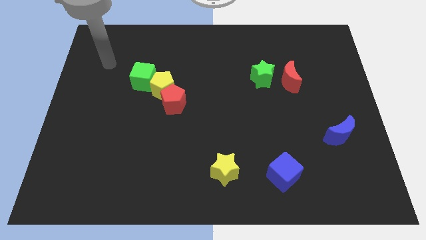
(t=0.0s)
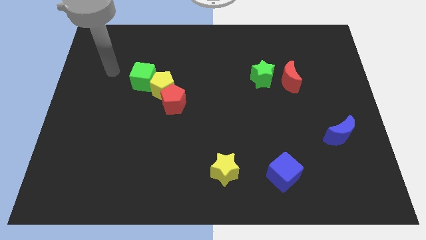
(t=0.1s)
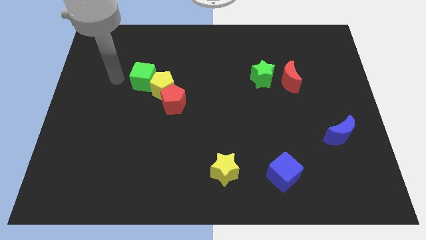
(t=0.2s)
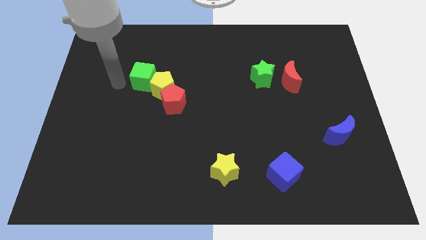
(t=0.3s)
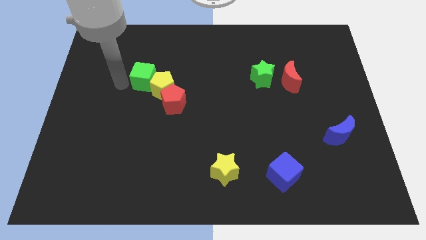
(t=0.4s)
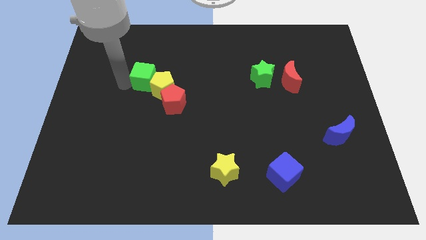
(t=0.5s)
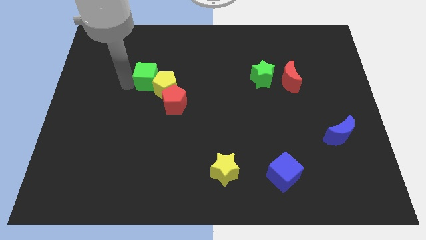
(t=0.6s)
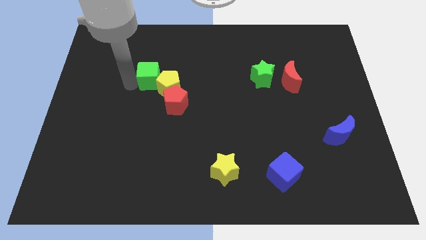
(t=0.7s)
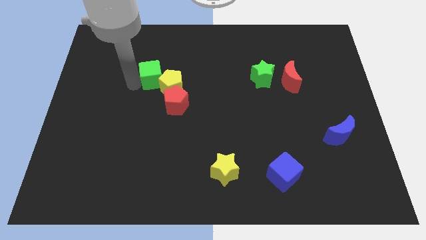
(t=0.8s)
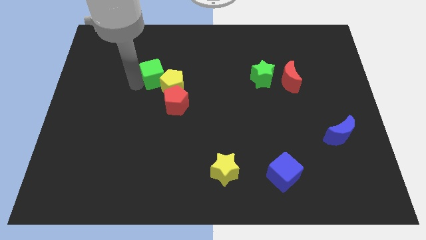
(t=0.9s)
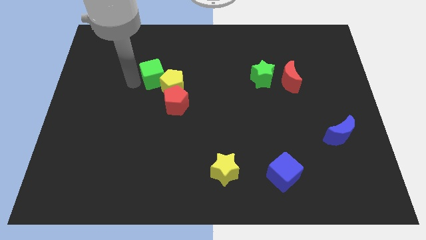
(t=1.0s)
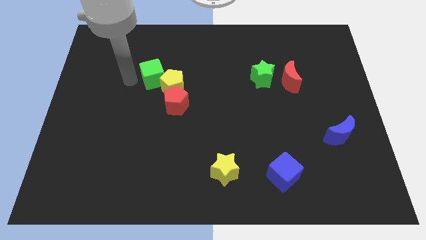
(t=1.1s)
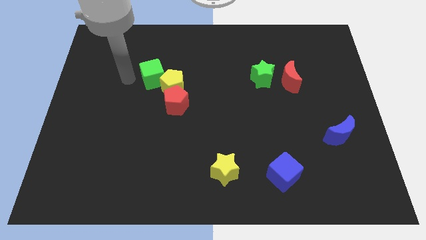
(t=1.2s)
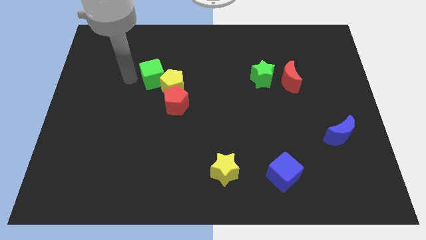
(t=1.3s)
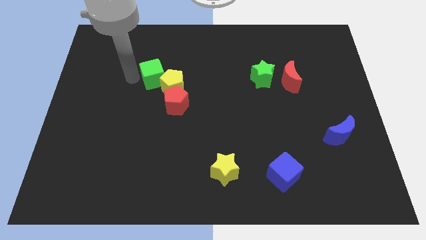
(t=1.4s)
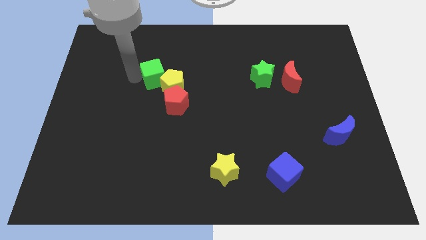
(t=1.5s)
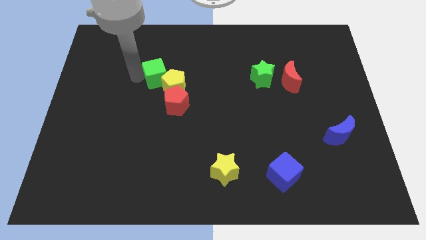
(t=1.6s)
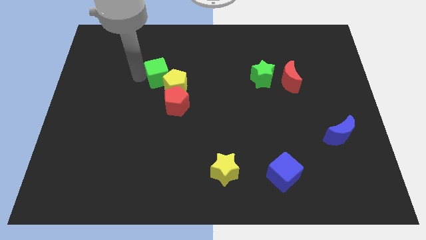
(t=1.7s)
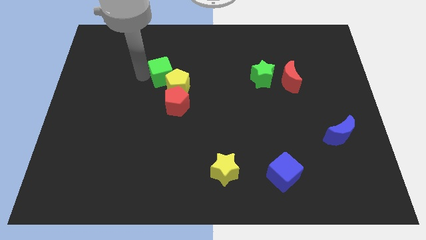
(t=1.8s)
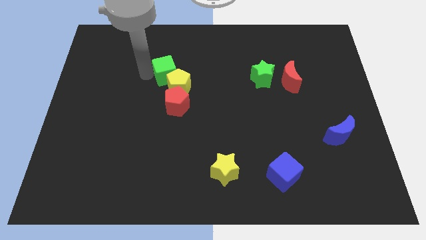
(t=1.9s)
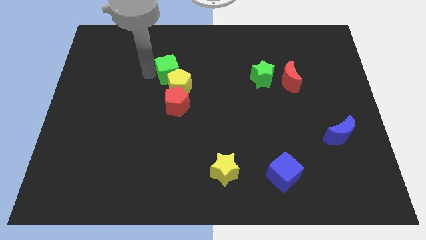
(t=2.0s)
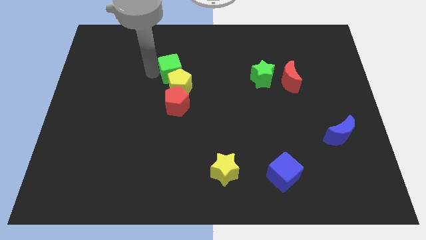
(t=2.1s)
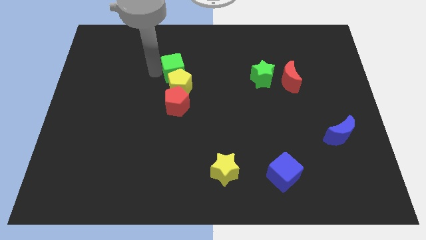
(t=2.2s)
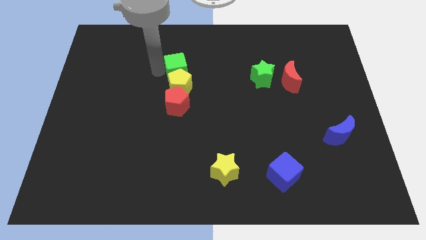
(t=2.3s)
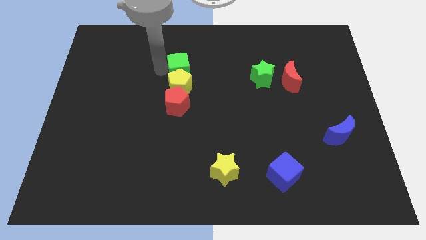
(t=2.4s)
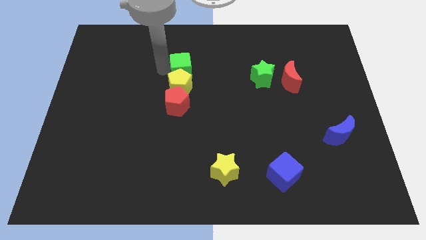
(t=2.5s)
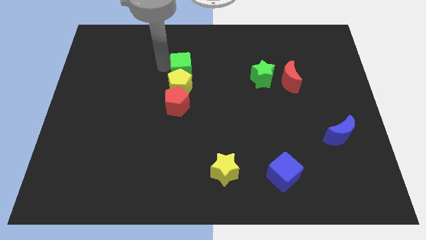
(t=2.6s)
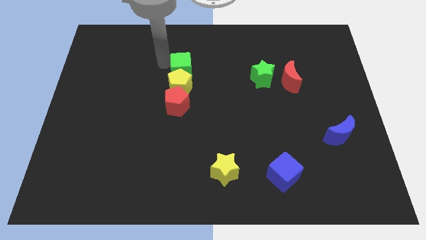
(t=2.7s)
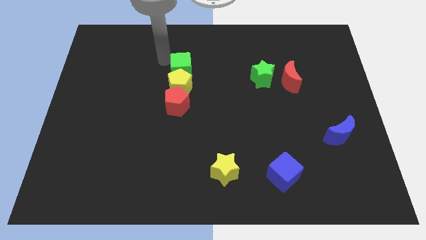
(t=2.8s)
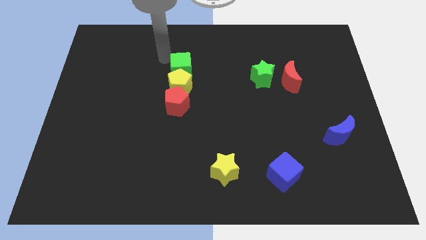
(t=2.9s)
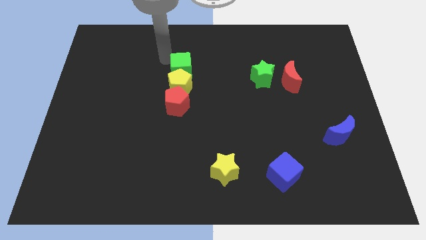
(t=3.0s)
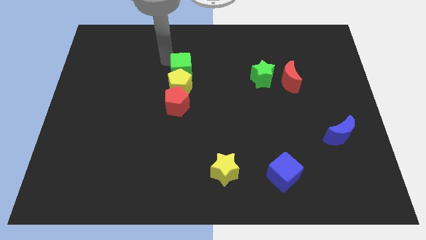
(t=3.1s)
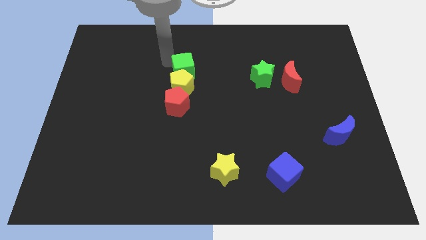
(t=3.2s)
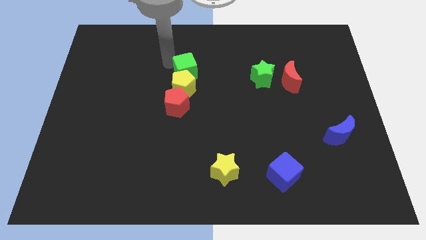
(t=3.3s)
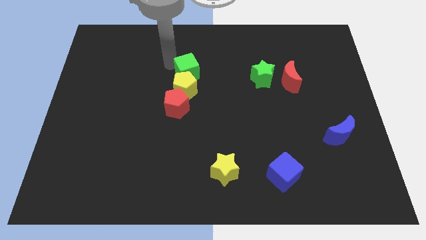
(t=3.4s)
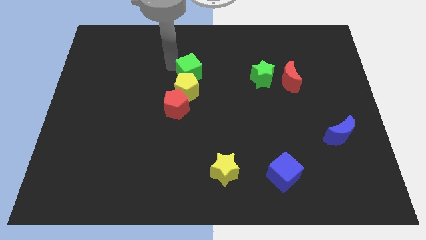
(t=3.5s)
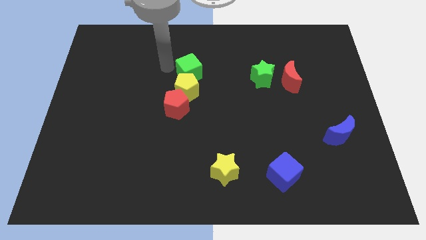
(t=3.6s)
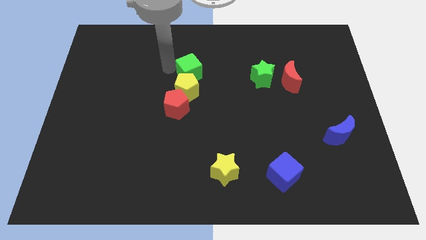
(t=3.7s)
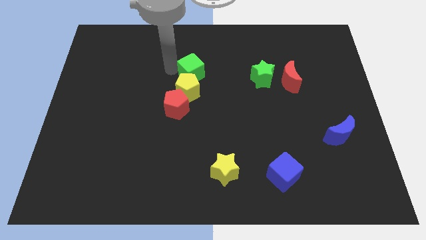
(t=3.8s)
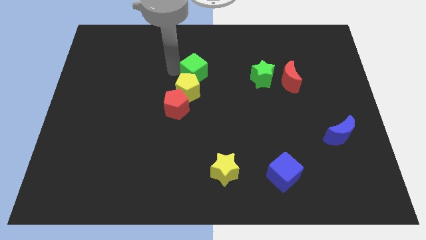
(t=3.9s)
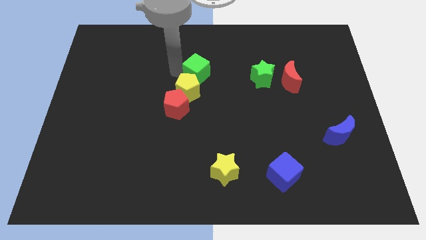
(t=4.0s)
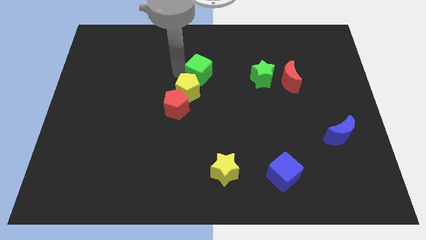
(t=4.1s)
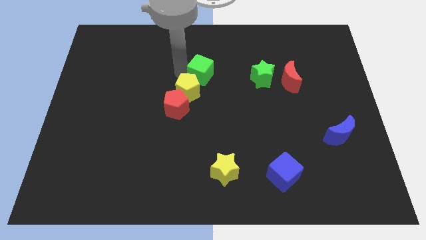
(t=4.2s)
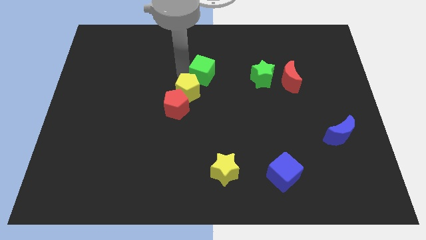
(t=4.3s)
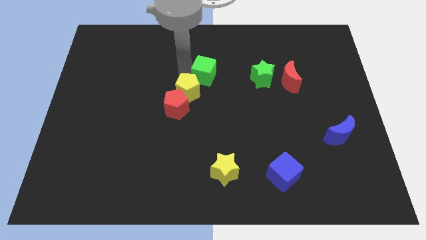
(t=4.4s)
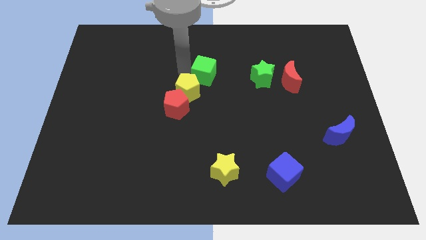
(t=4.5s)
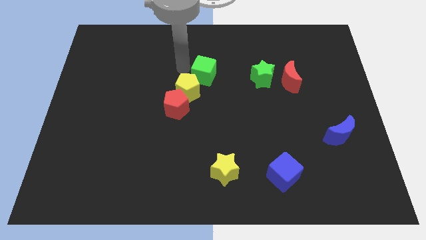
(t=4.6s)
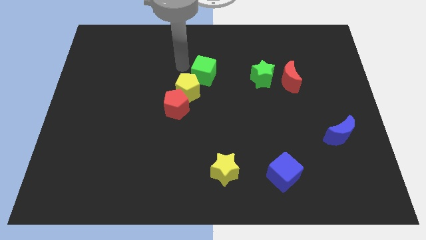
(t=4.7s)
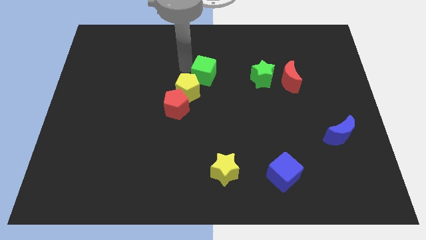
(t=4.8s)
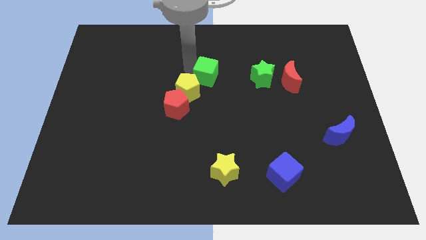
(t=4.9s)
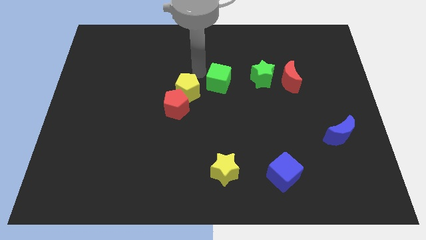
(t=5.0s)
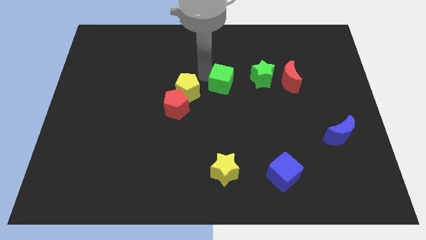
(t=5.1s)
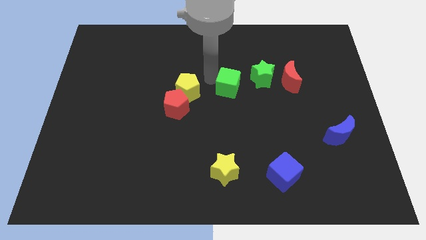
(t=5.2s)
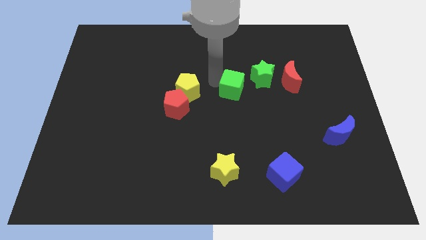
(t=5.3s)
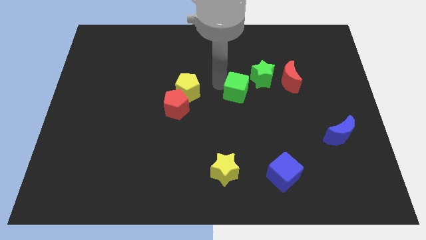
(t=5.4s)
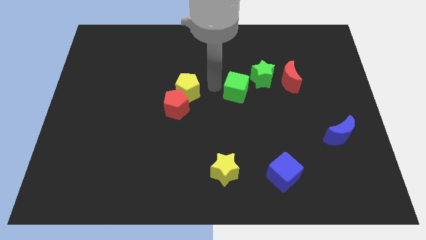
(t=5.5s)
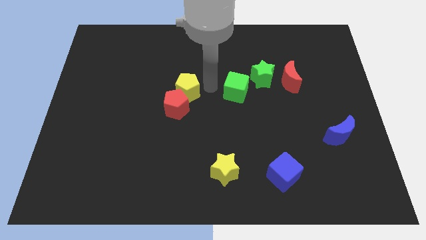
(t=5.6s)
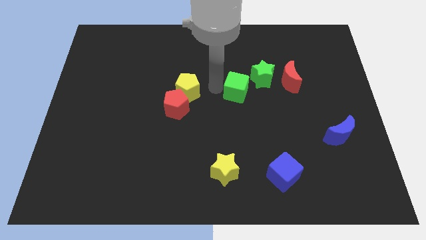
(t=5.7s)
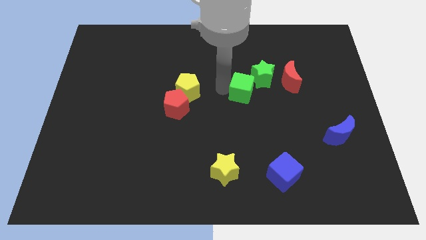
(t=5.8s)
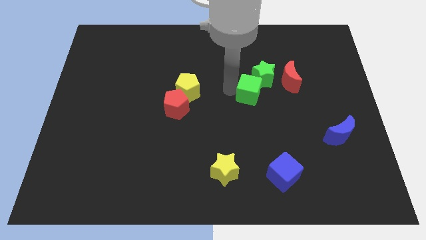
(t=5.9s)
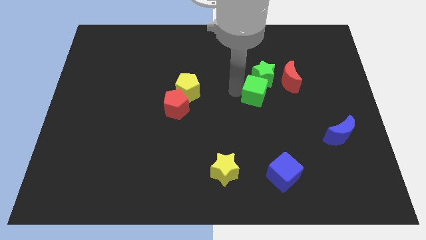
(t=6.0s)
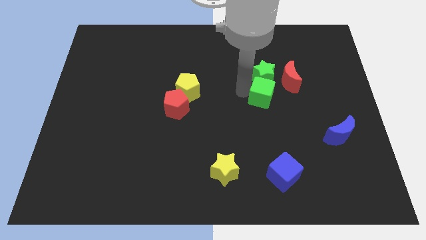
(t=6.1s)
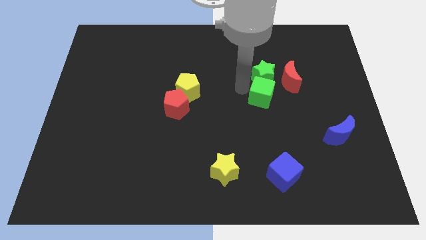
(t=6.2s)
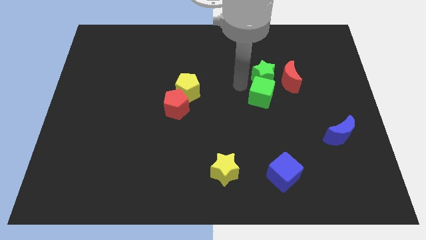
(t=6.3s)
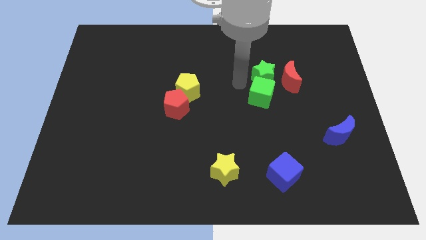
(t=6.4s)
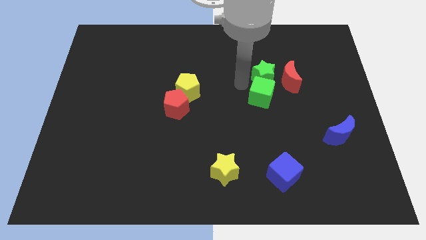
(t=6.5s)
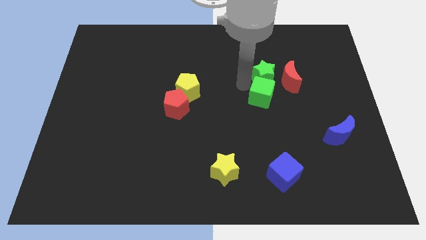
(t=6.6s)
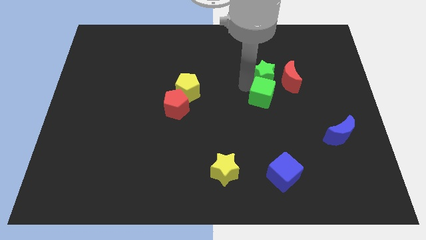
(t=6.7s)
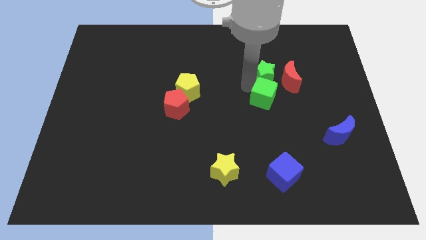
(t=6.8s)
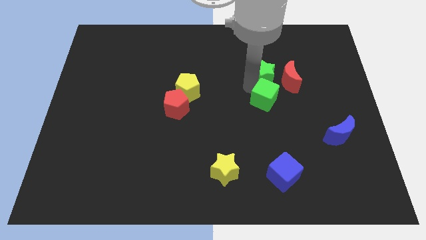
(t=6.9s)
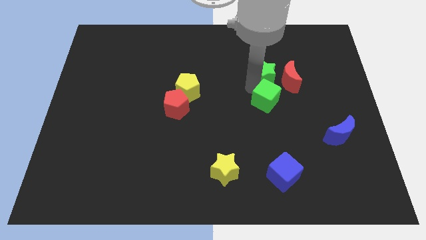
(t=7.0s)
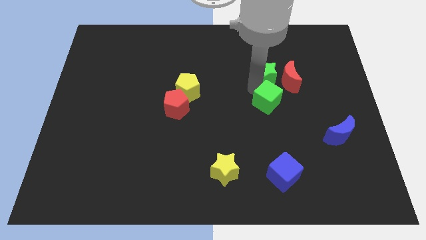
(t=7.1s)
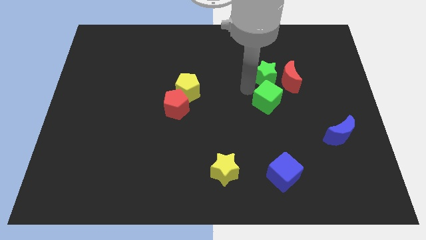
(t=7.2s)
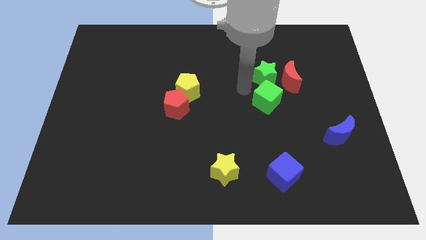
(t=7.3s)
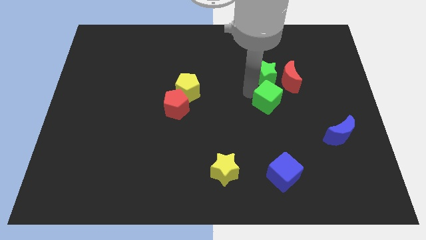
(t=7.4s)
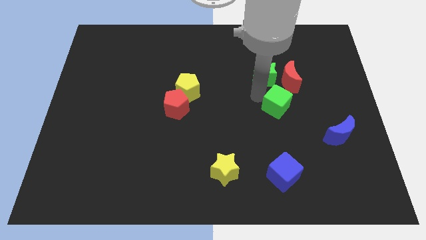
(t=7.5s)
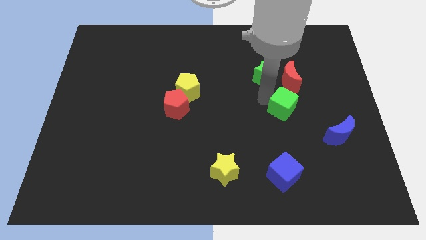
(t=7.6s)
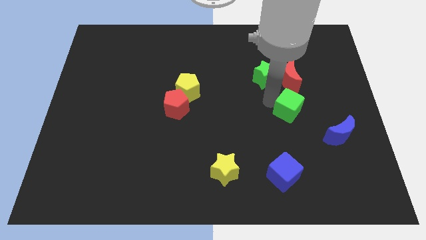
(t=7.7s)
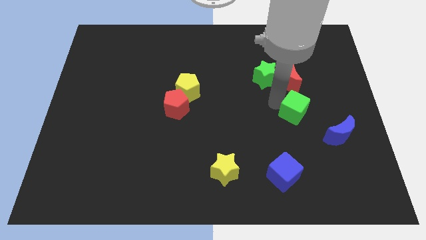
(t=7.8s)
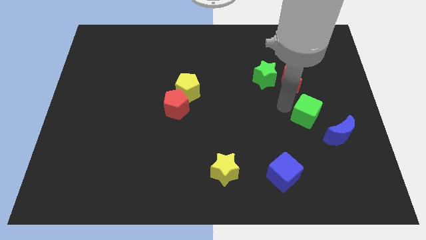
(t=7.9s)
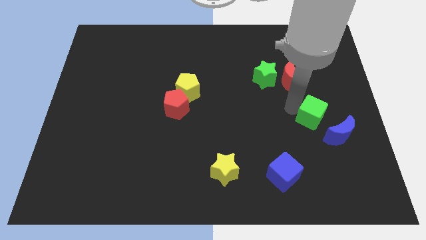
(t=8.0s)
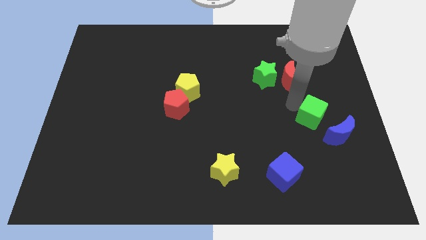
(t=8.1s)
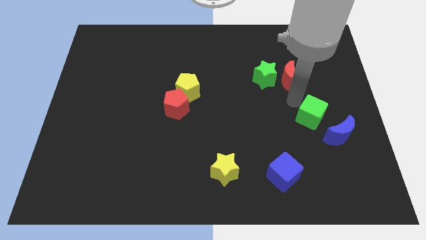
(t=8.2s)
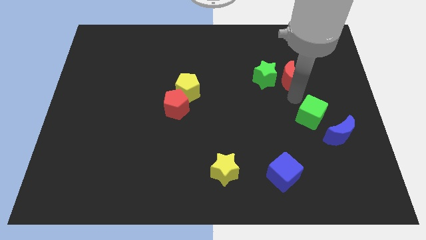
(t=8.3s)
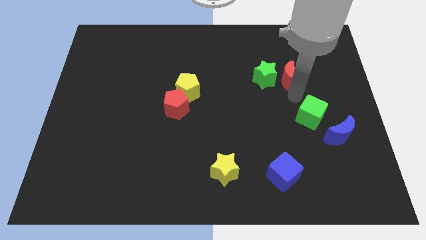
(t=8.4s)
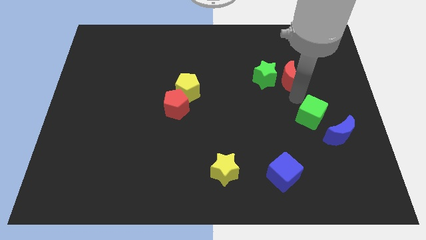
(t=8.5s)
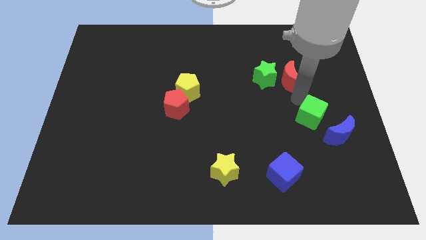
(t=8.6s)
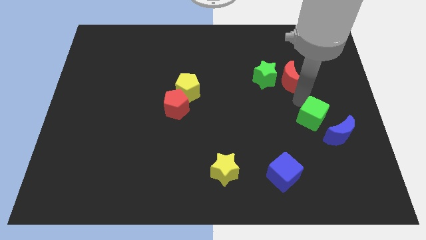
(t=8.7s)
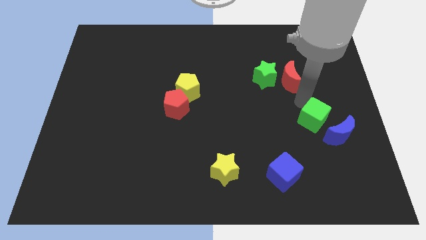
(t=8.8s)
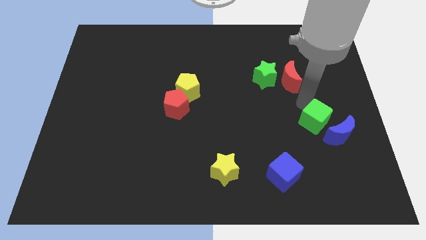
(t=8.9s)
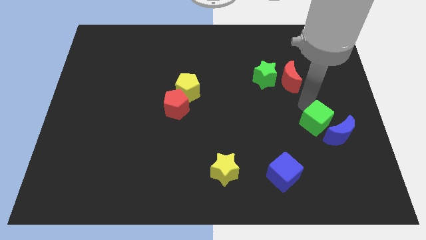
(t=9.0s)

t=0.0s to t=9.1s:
put the green cube towards the blue moon
